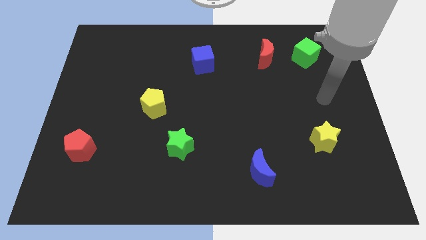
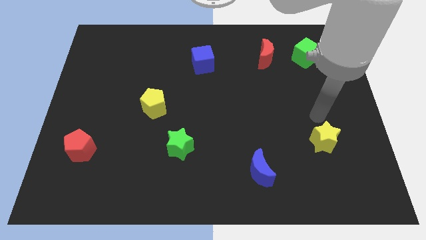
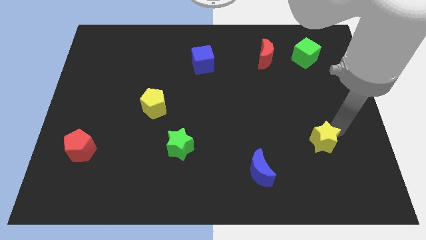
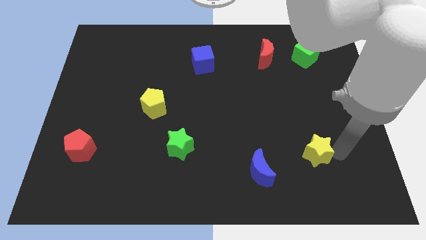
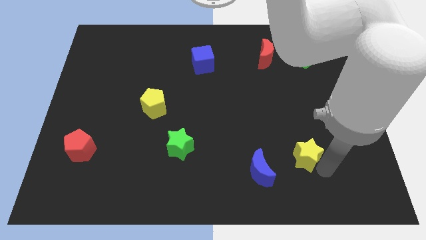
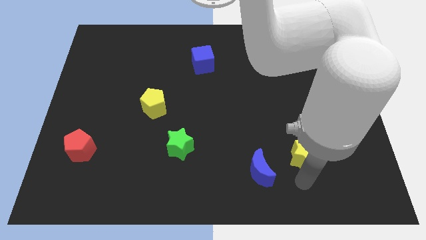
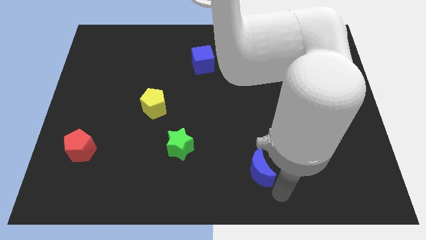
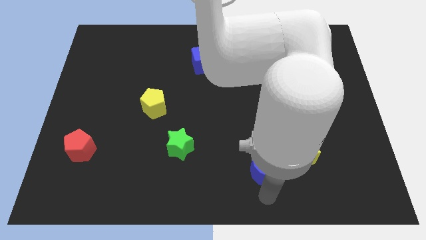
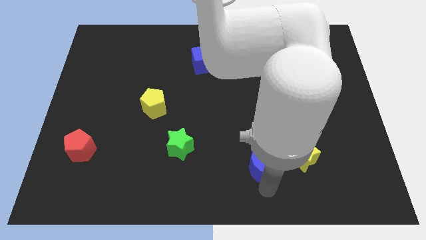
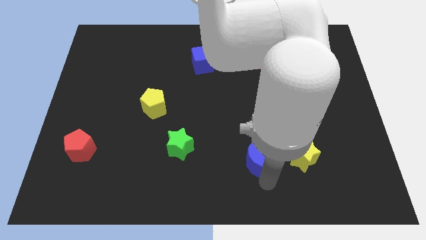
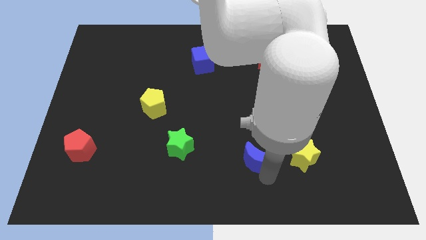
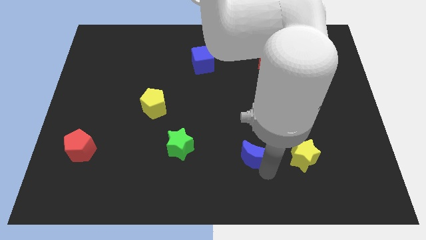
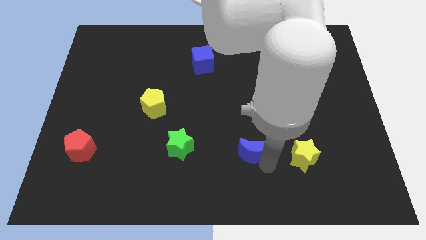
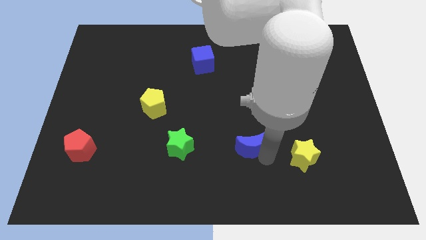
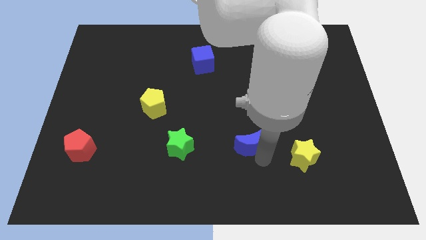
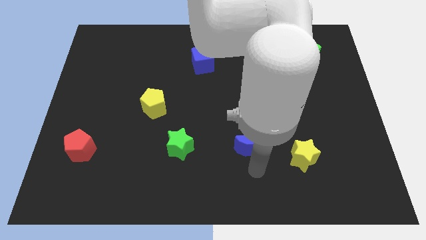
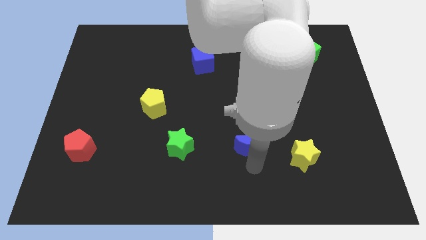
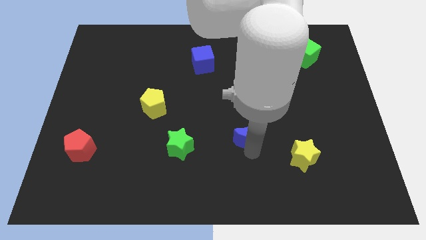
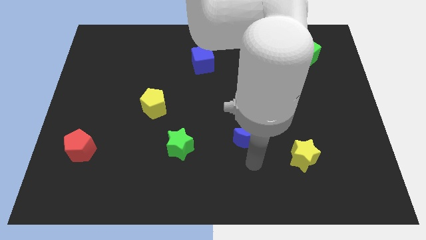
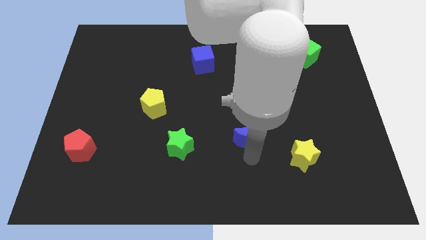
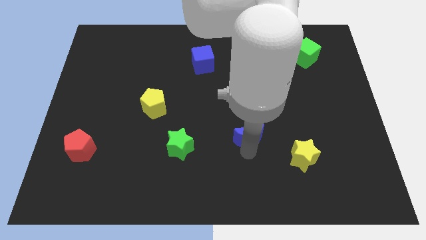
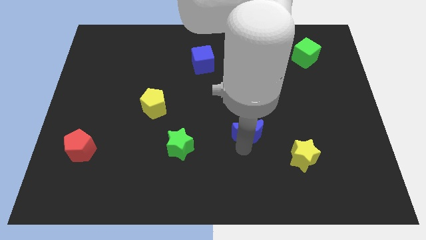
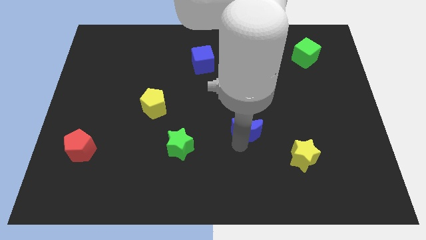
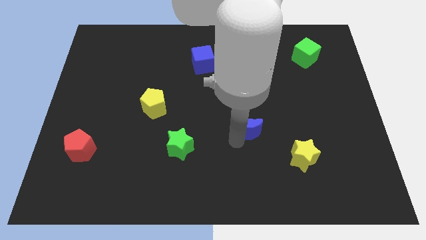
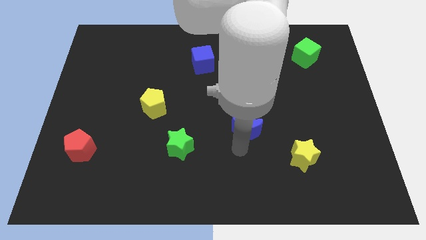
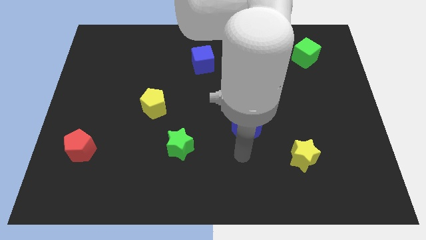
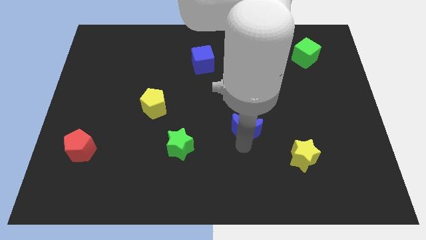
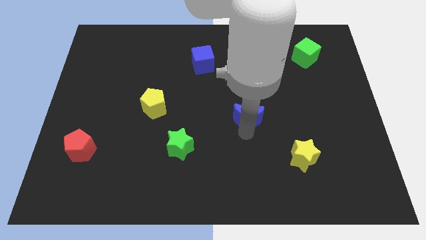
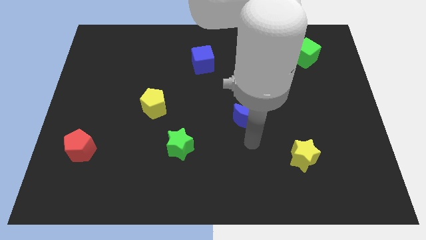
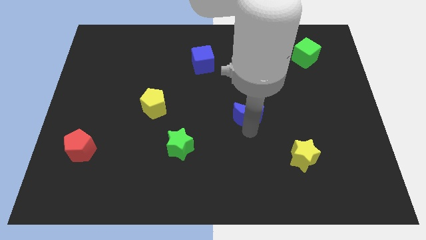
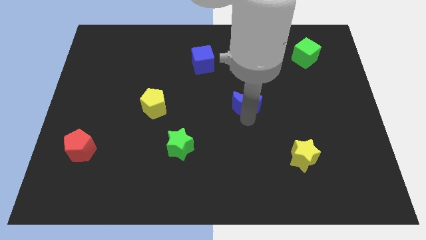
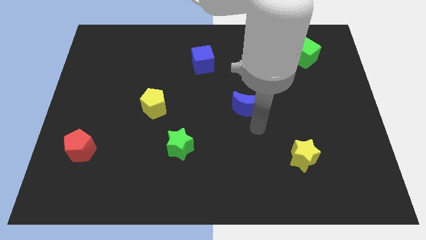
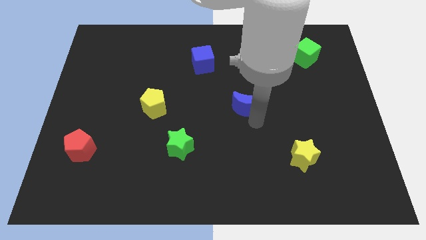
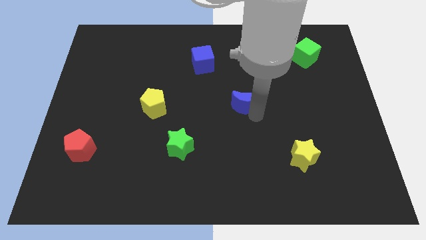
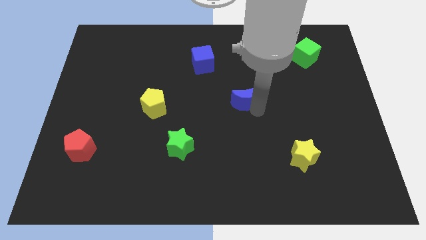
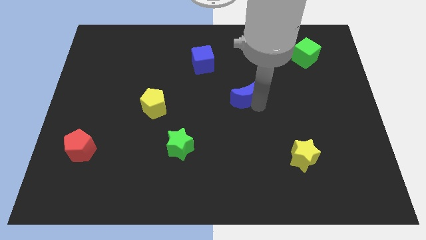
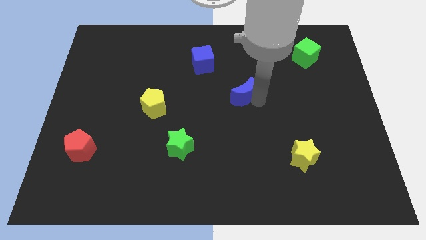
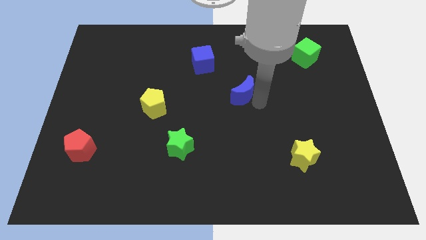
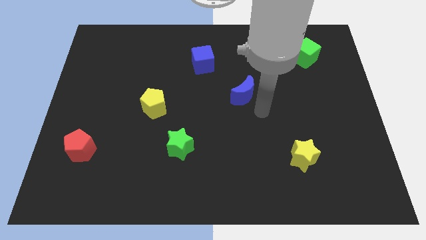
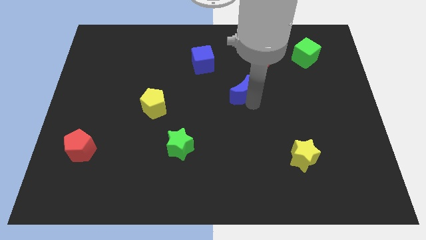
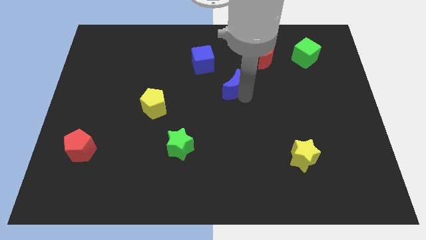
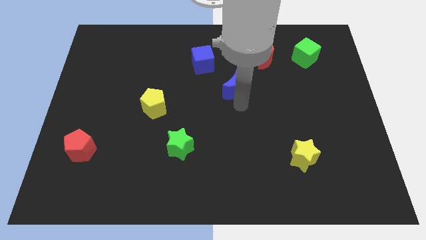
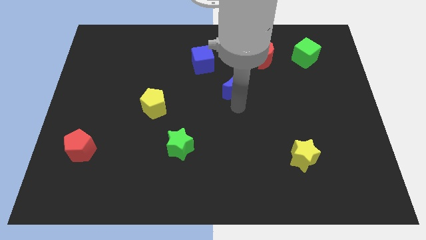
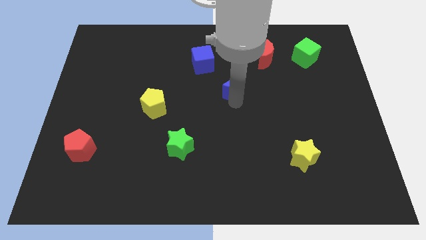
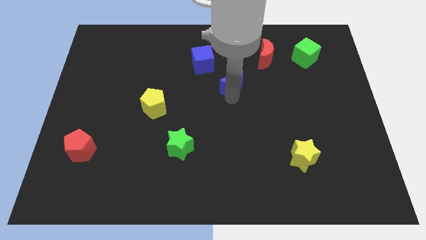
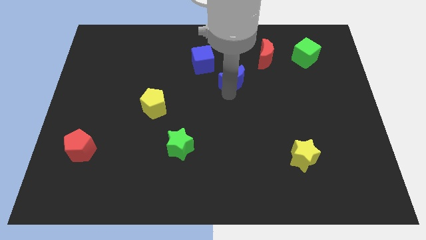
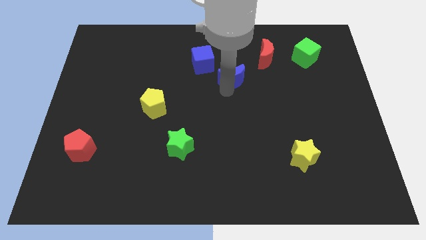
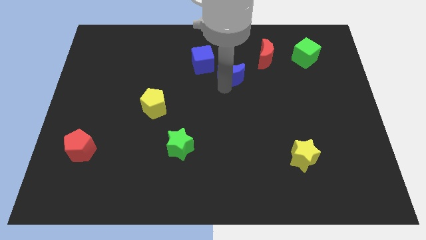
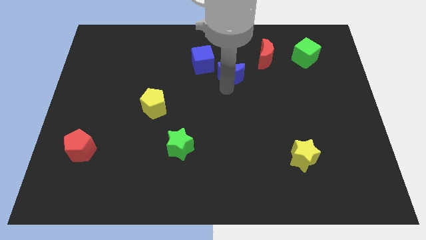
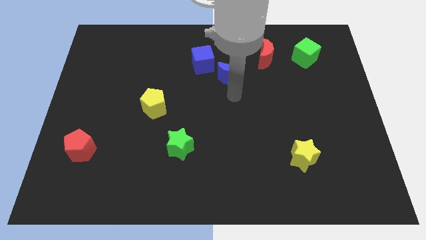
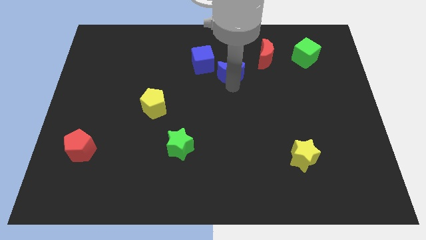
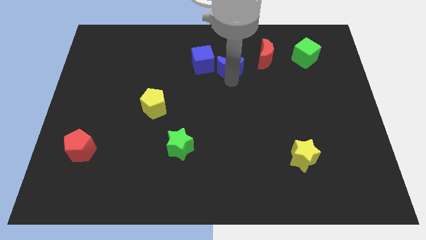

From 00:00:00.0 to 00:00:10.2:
slide the blue moon to the left of the red moon

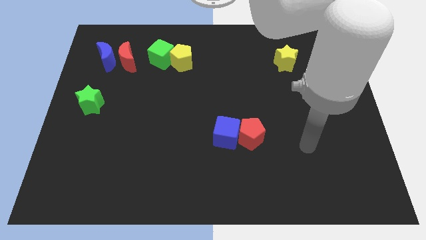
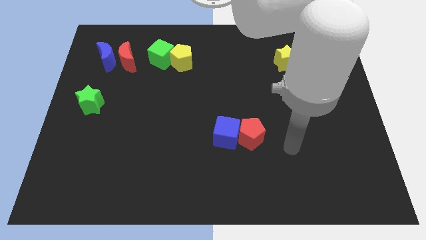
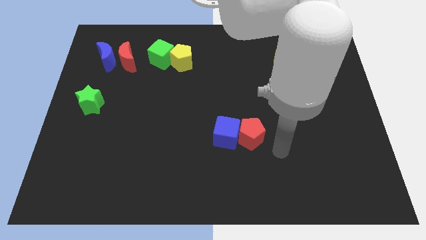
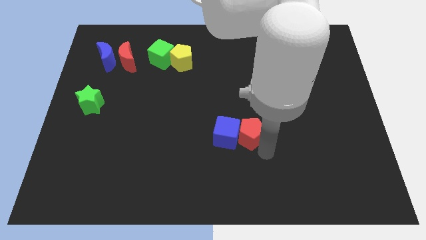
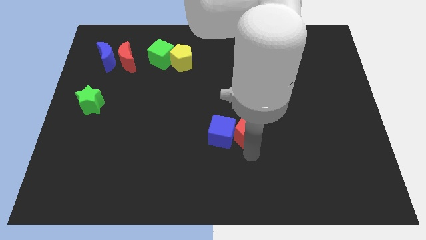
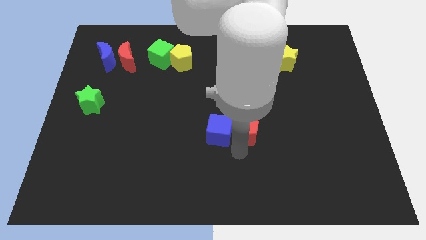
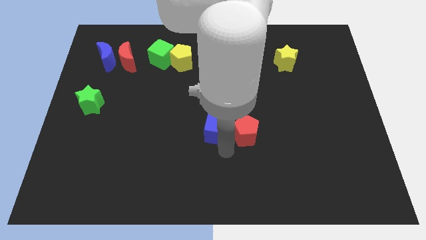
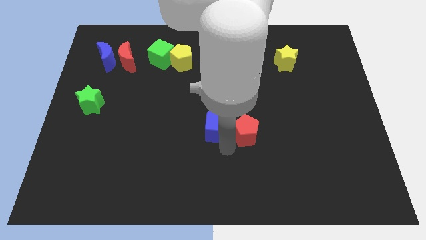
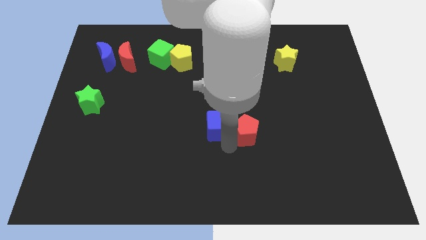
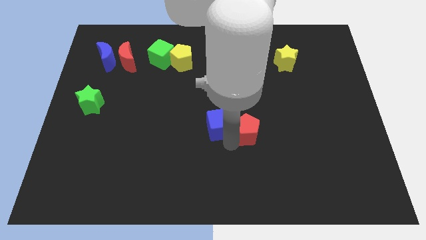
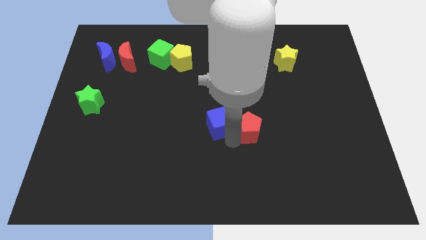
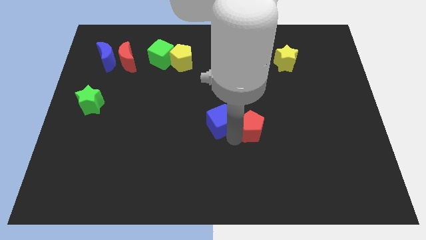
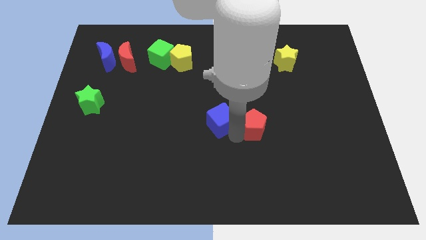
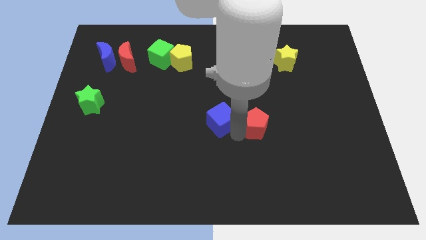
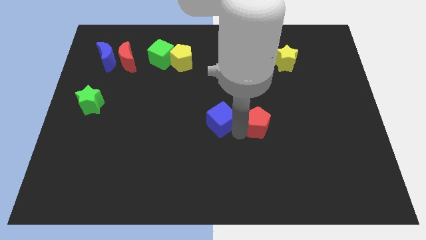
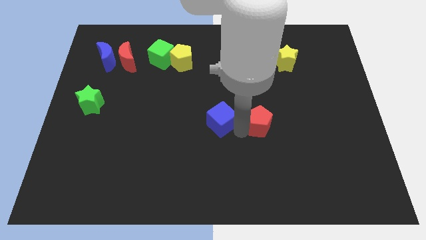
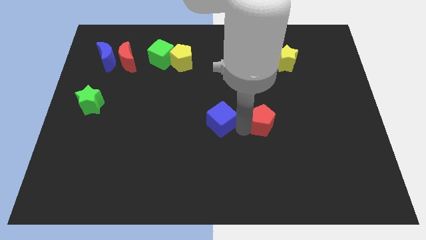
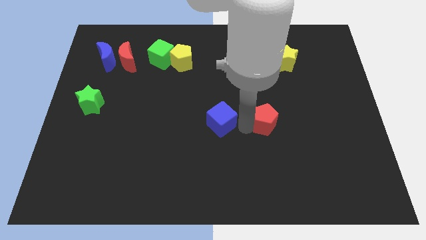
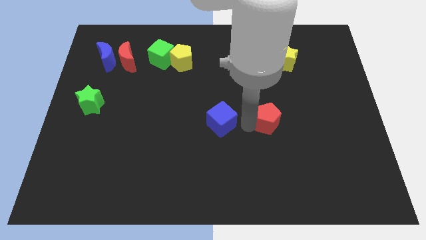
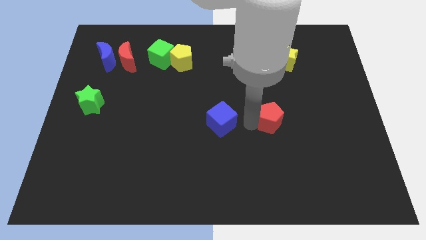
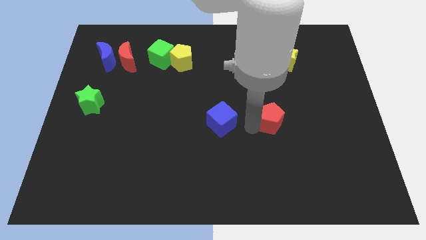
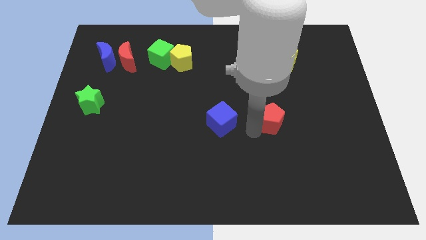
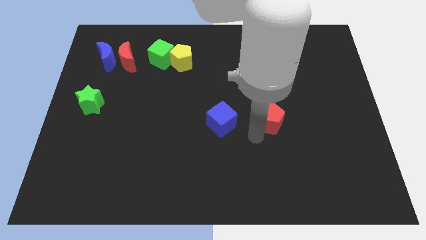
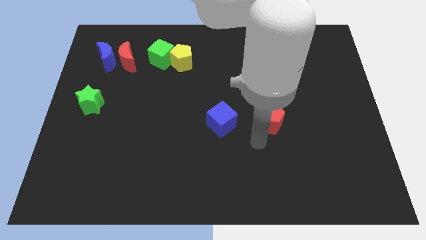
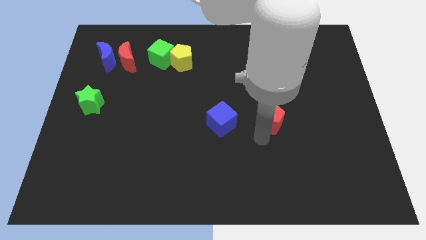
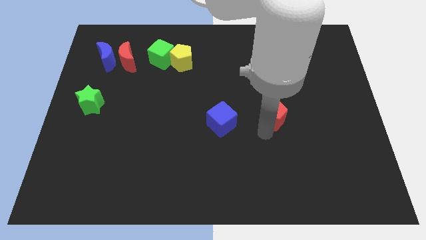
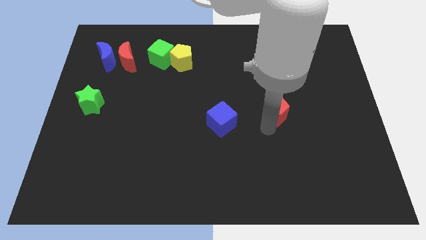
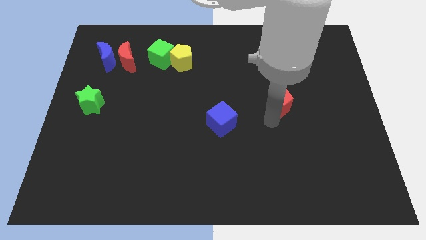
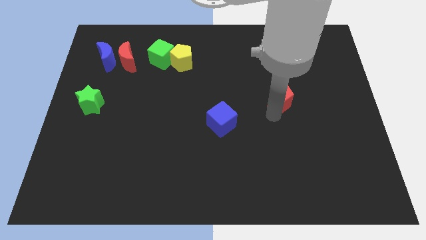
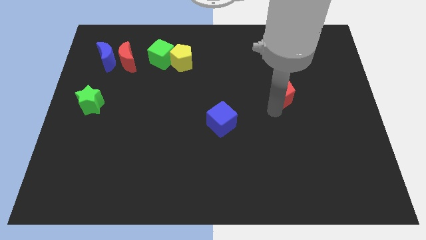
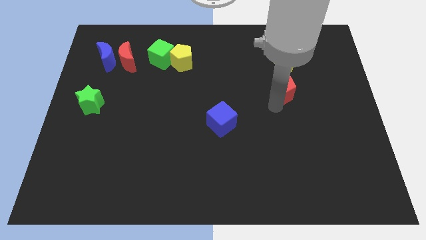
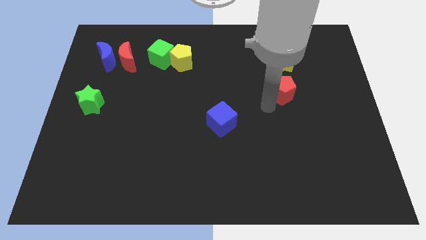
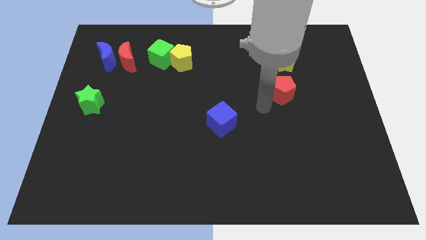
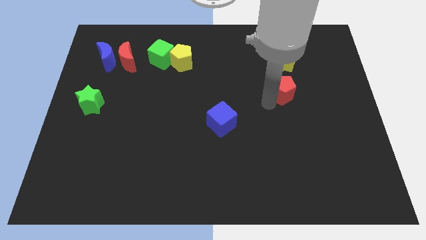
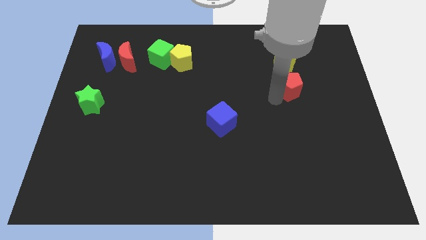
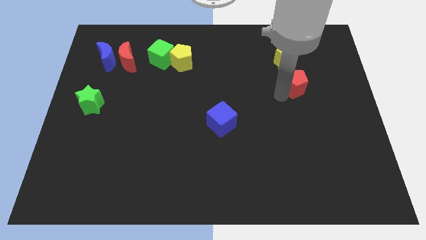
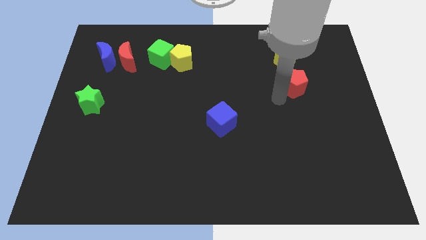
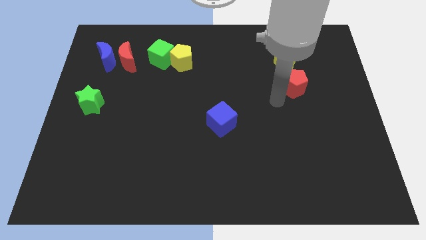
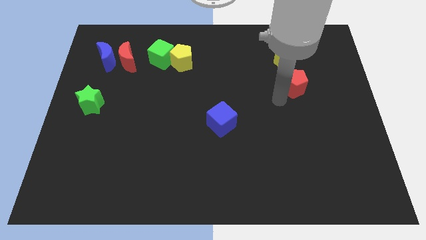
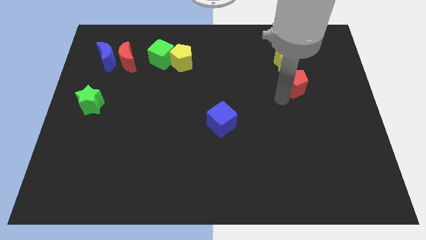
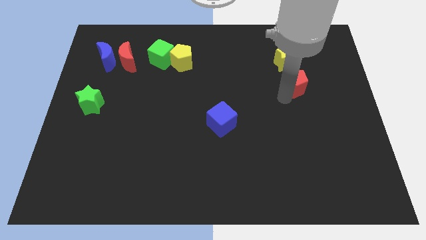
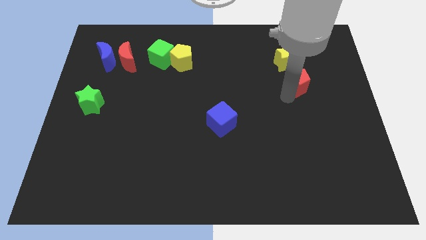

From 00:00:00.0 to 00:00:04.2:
push the red pentagon to the bottom right side of the yellow star
